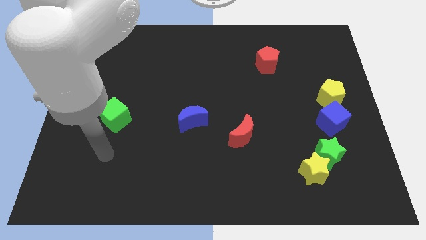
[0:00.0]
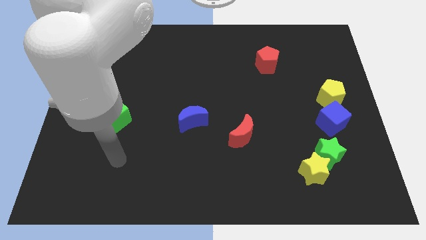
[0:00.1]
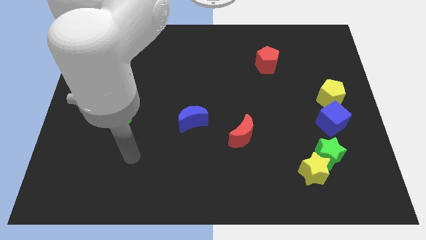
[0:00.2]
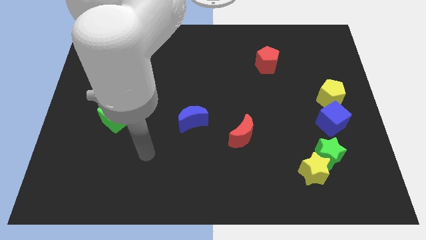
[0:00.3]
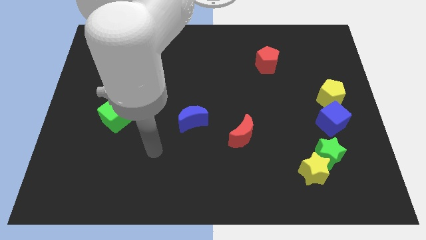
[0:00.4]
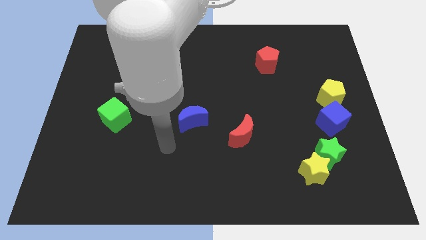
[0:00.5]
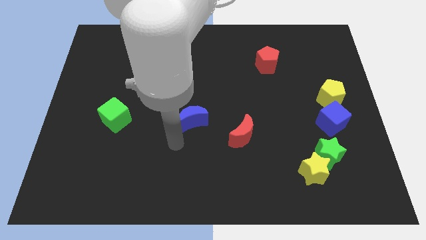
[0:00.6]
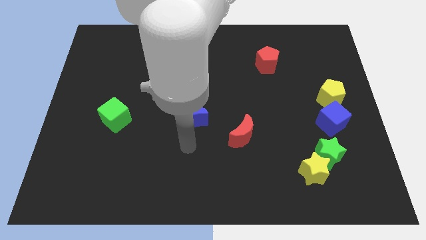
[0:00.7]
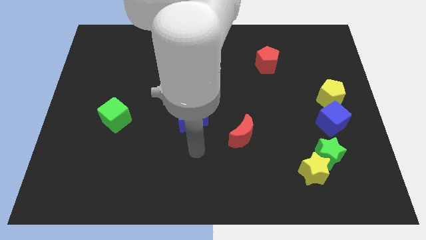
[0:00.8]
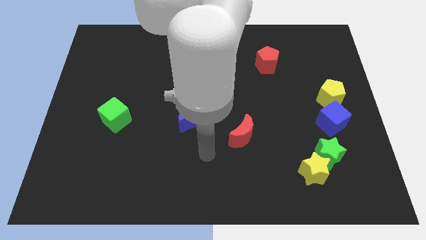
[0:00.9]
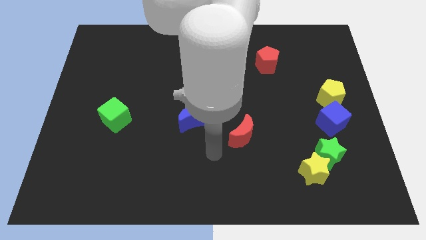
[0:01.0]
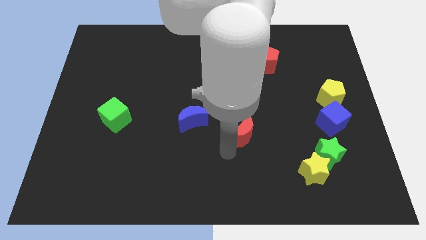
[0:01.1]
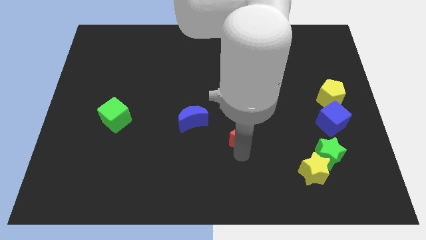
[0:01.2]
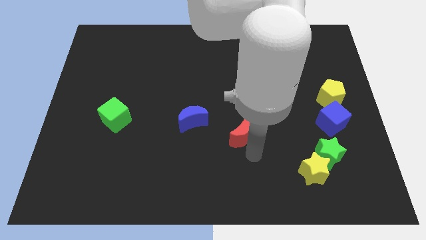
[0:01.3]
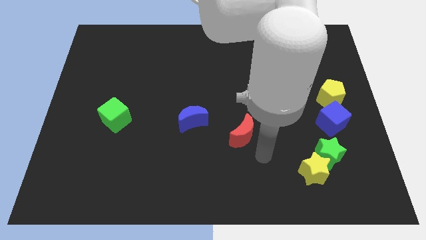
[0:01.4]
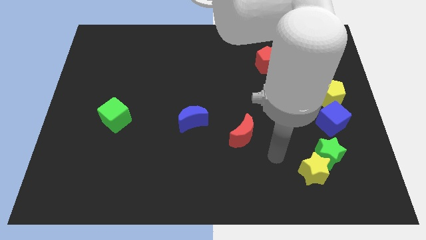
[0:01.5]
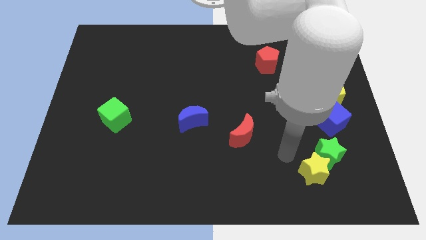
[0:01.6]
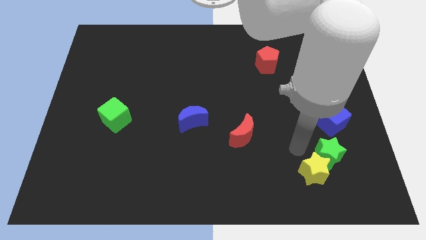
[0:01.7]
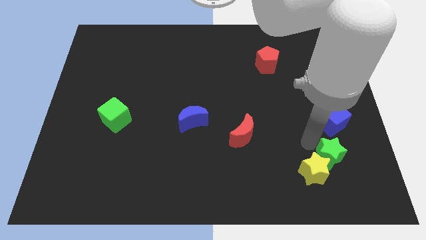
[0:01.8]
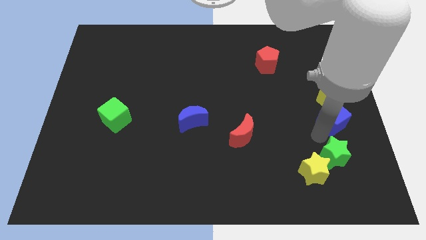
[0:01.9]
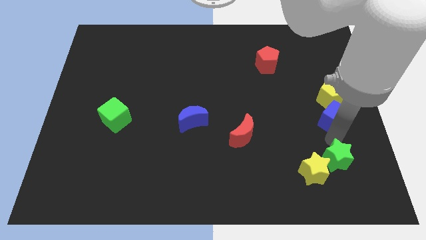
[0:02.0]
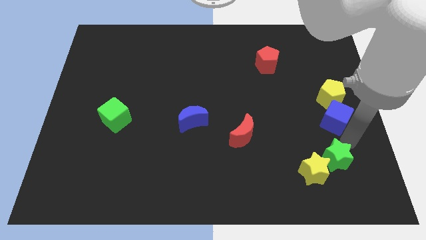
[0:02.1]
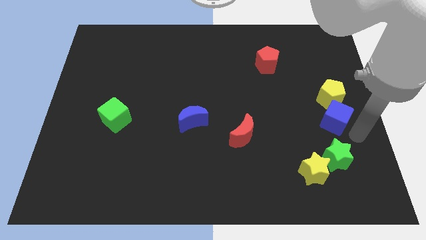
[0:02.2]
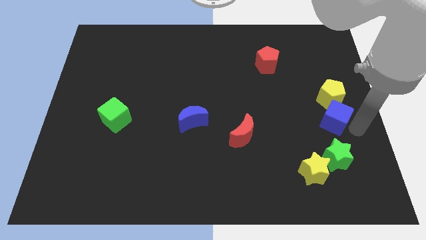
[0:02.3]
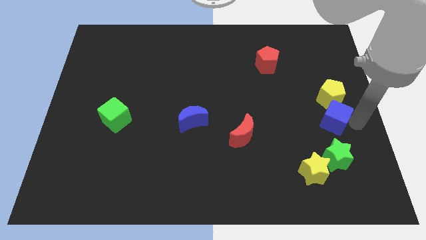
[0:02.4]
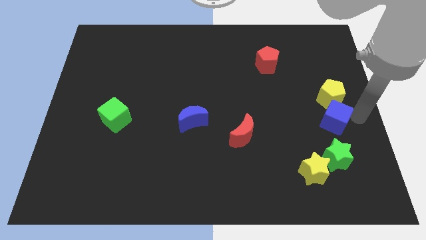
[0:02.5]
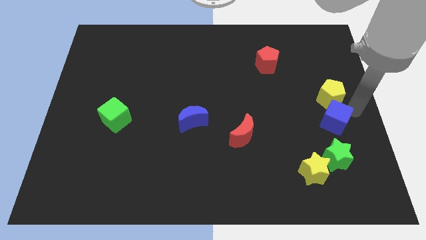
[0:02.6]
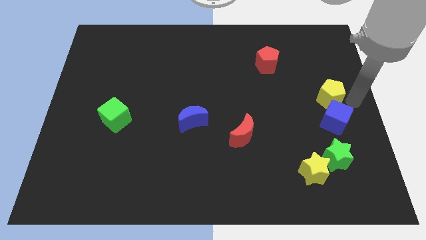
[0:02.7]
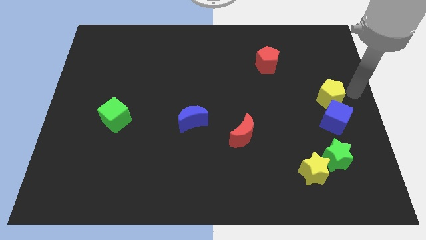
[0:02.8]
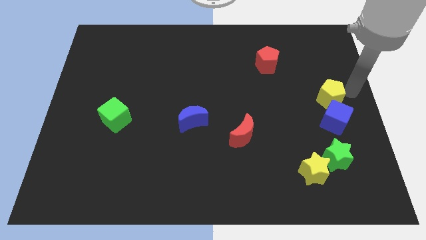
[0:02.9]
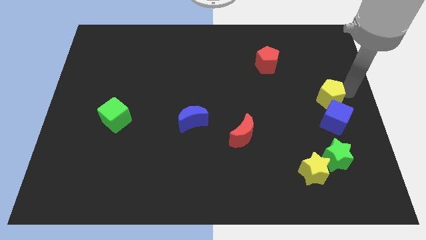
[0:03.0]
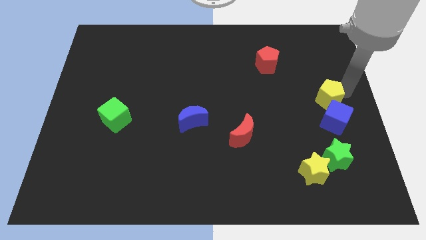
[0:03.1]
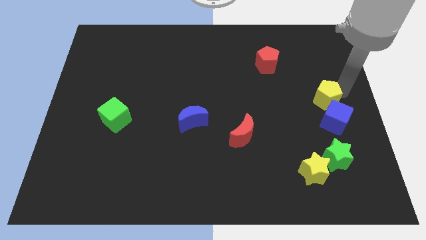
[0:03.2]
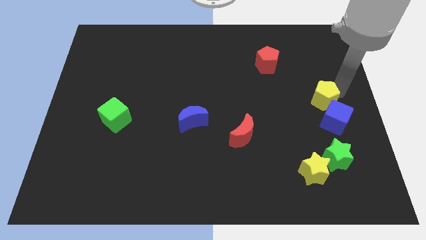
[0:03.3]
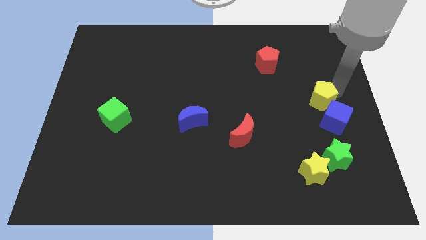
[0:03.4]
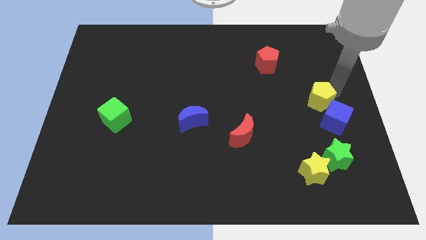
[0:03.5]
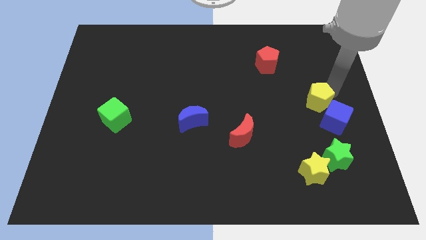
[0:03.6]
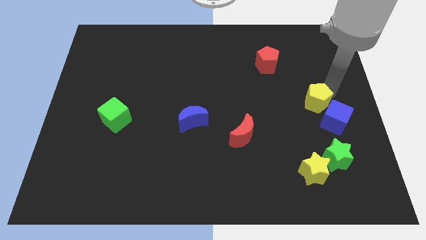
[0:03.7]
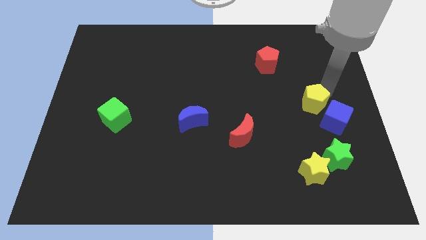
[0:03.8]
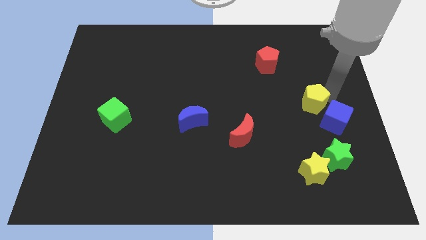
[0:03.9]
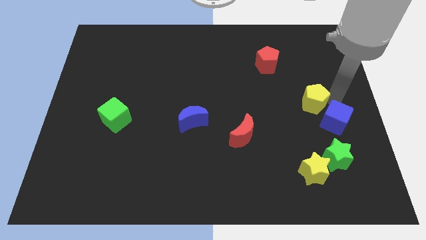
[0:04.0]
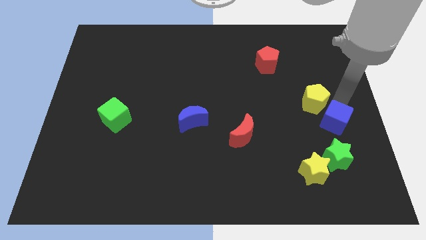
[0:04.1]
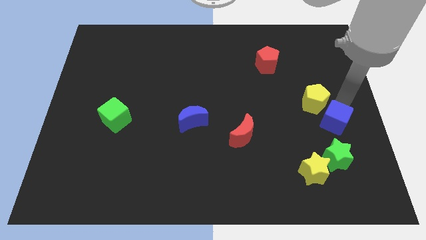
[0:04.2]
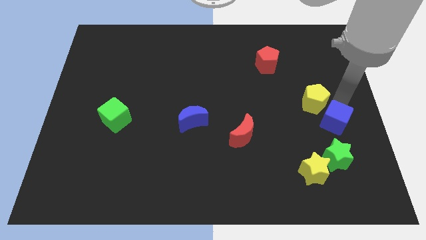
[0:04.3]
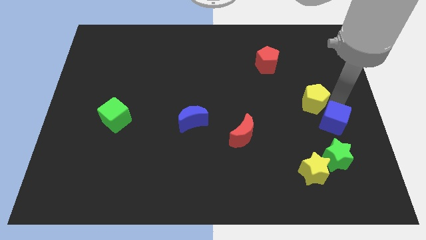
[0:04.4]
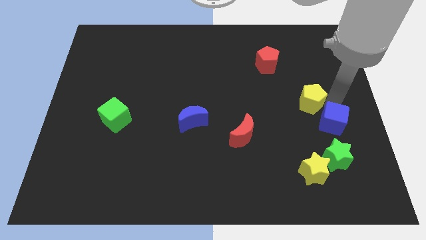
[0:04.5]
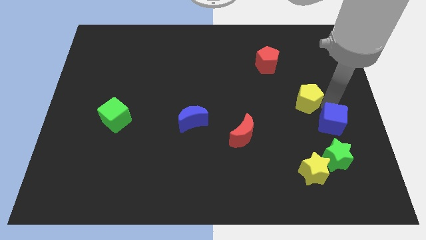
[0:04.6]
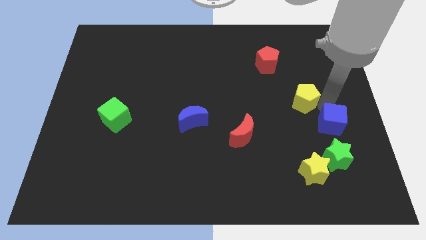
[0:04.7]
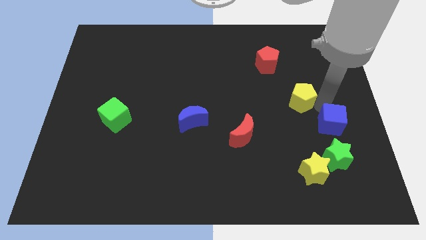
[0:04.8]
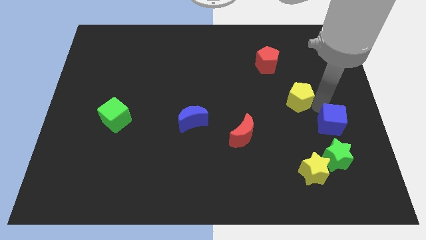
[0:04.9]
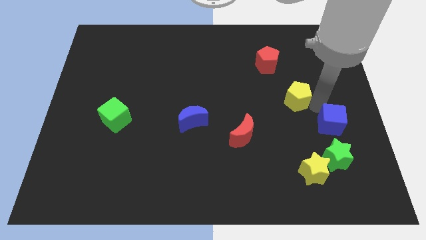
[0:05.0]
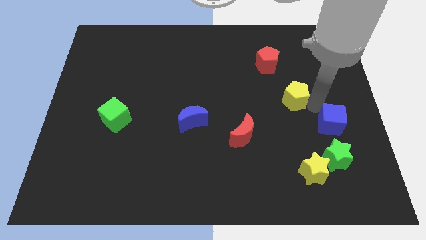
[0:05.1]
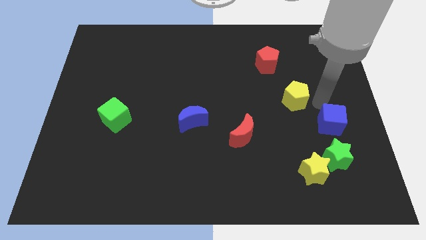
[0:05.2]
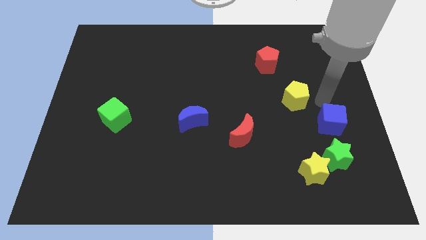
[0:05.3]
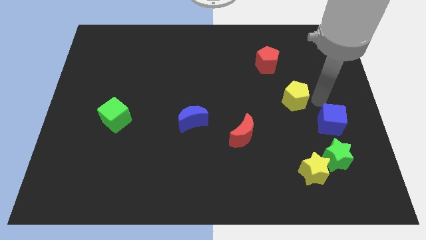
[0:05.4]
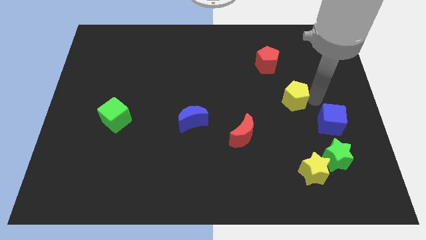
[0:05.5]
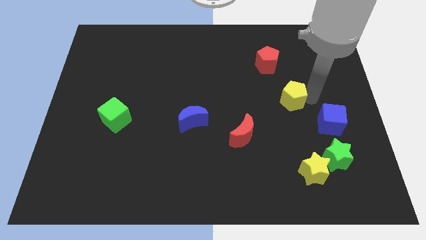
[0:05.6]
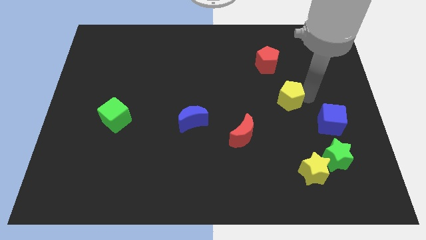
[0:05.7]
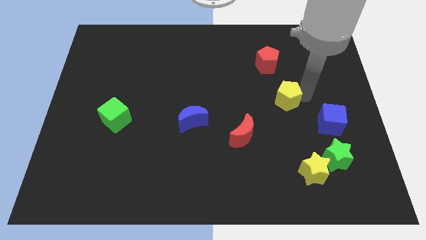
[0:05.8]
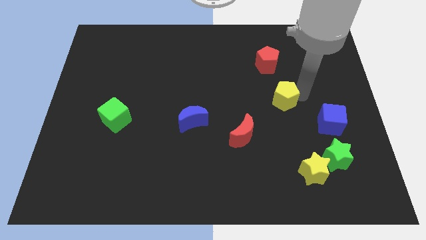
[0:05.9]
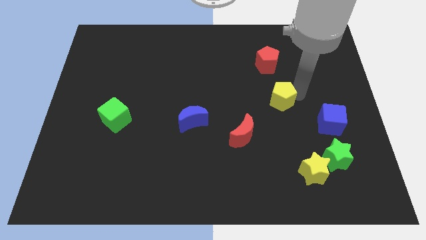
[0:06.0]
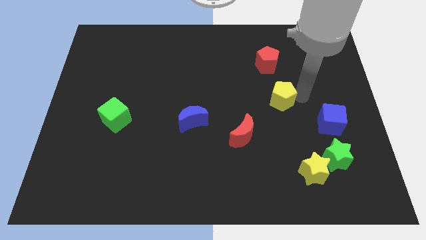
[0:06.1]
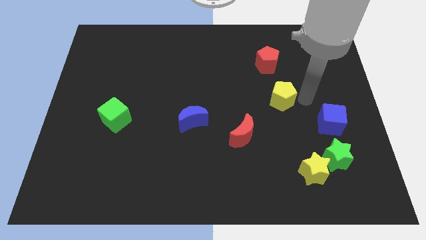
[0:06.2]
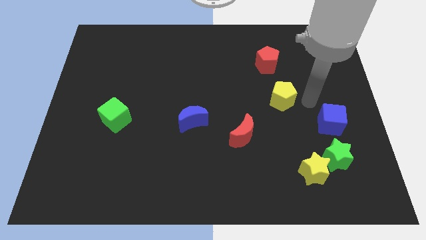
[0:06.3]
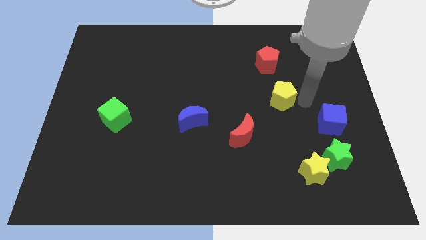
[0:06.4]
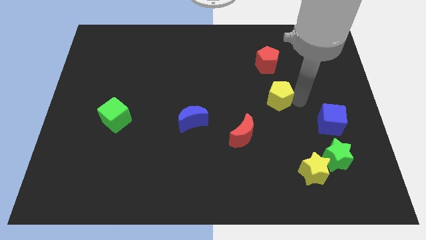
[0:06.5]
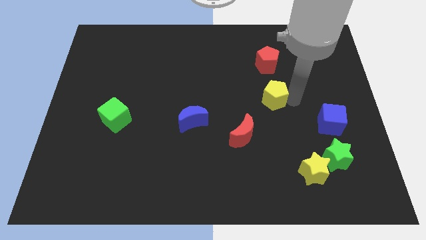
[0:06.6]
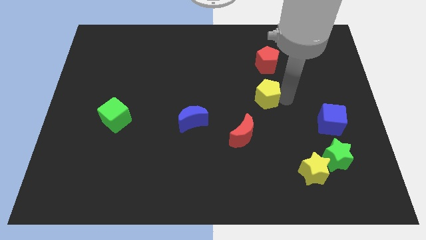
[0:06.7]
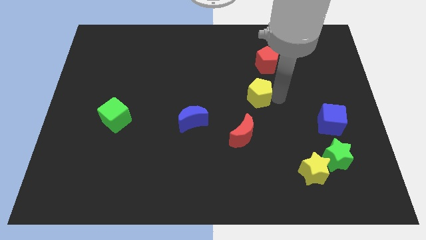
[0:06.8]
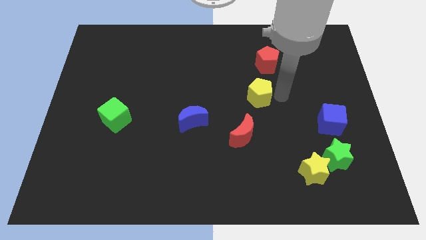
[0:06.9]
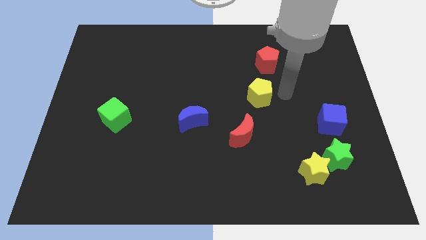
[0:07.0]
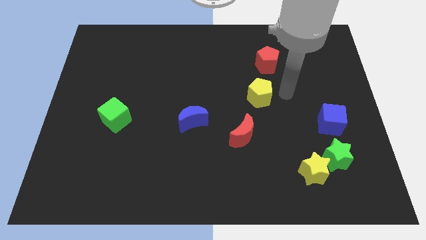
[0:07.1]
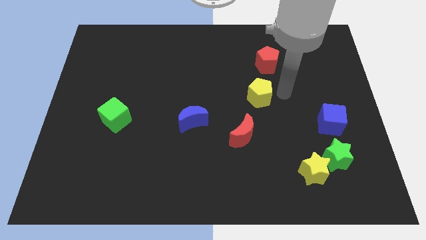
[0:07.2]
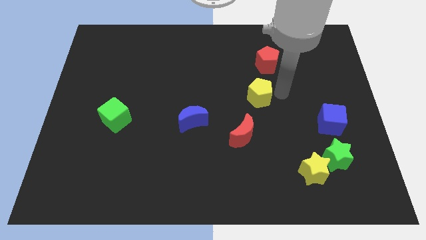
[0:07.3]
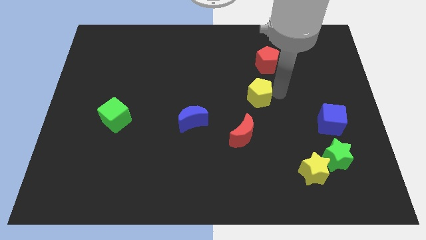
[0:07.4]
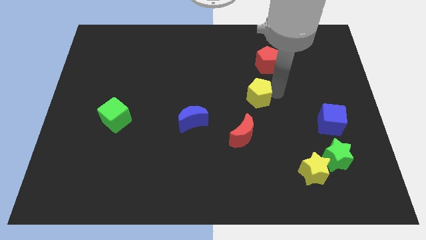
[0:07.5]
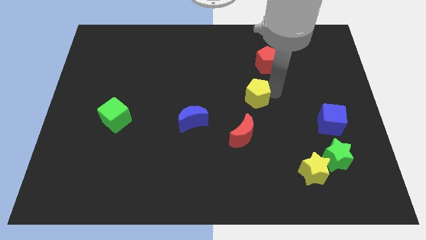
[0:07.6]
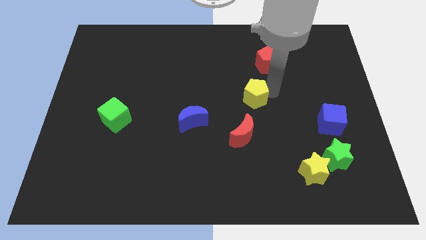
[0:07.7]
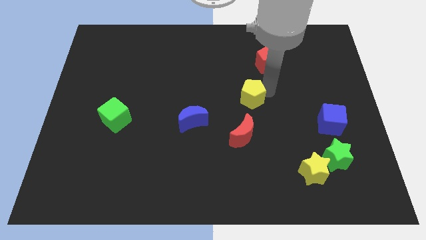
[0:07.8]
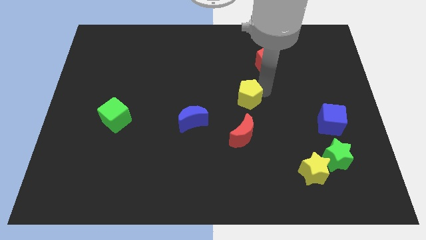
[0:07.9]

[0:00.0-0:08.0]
slide the yellow pentagon to the left
